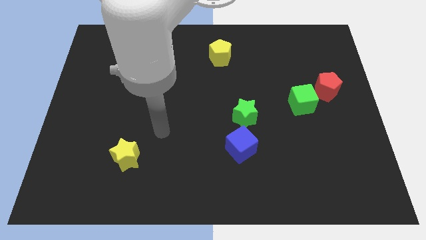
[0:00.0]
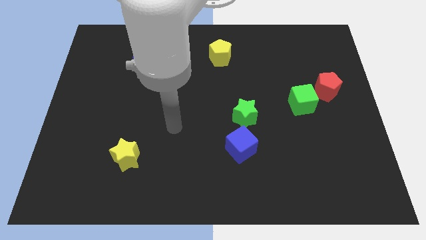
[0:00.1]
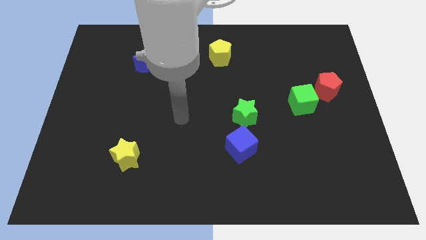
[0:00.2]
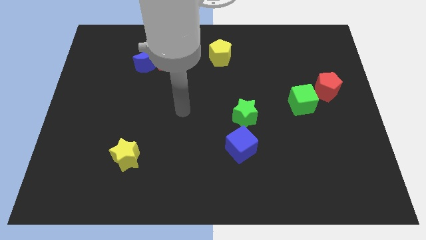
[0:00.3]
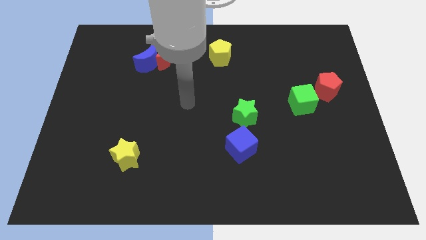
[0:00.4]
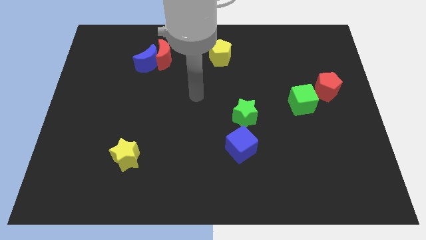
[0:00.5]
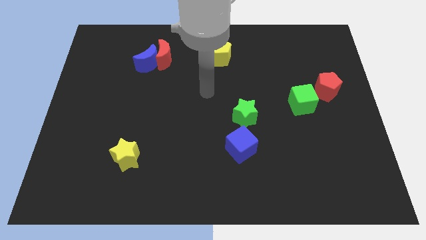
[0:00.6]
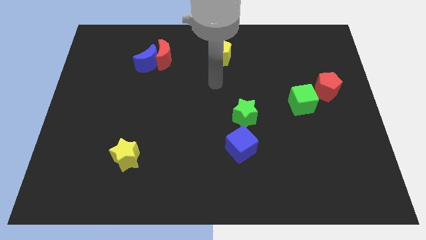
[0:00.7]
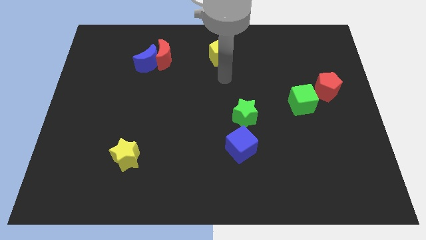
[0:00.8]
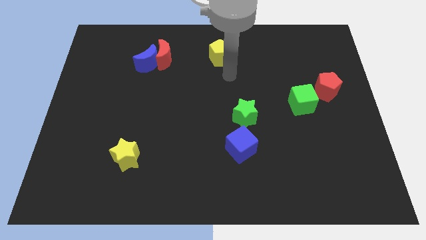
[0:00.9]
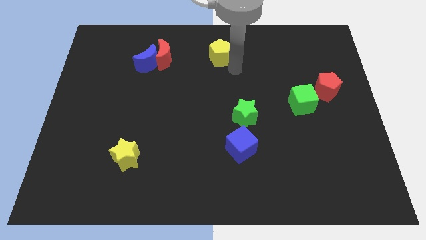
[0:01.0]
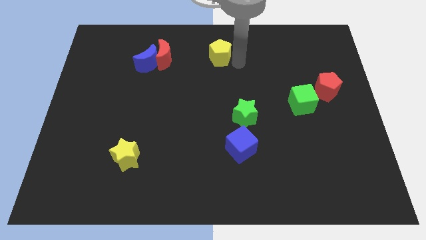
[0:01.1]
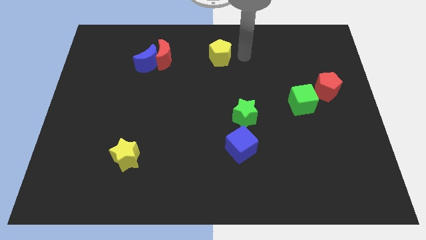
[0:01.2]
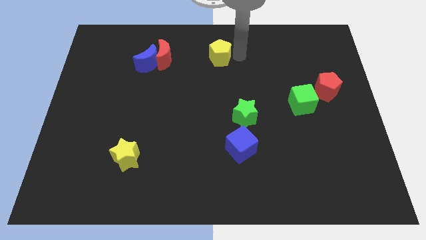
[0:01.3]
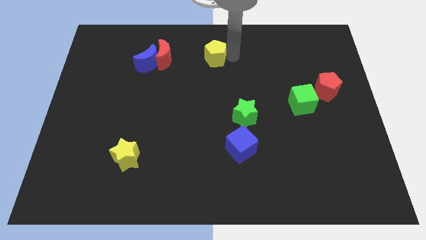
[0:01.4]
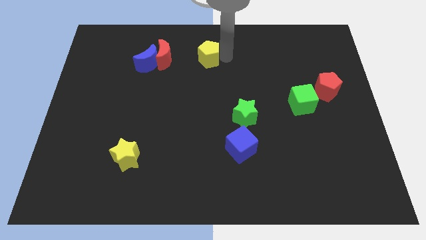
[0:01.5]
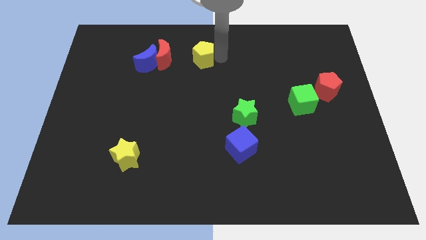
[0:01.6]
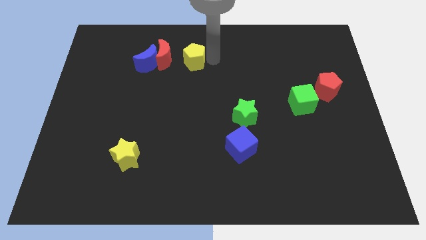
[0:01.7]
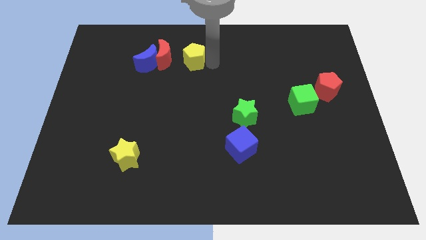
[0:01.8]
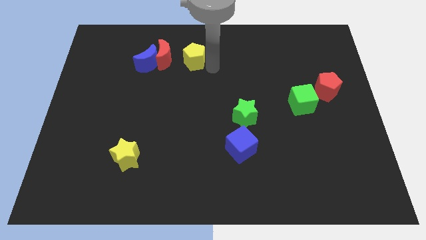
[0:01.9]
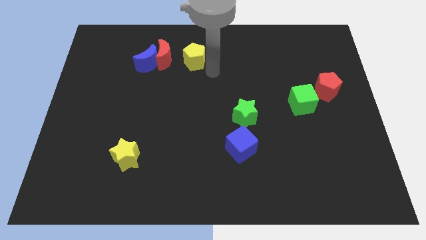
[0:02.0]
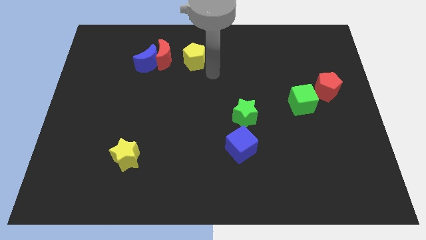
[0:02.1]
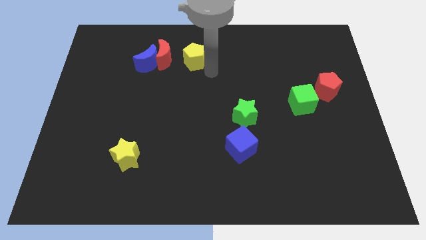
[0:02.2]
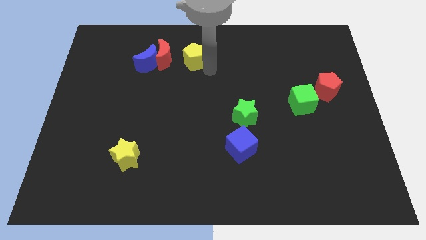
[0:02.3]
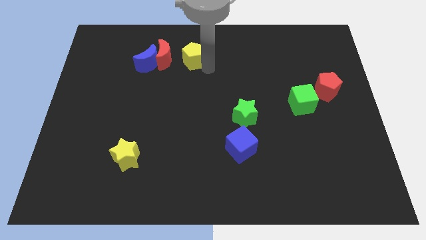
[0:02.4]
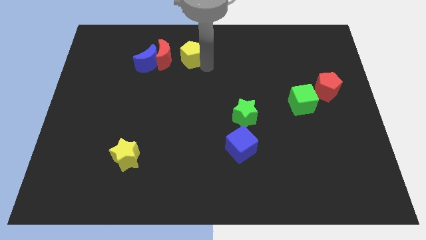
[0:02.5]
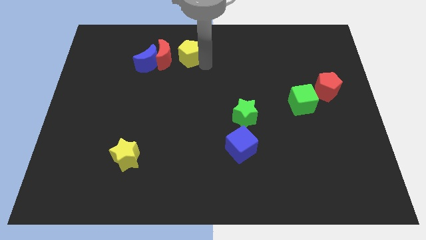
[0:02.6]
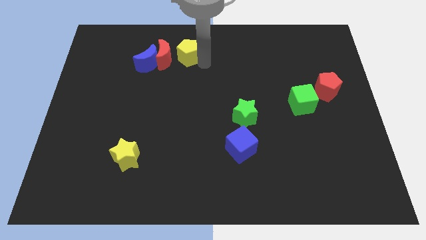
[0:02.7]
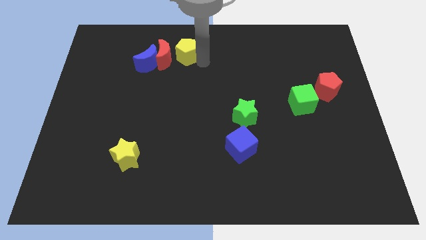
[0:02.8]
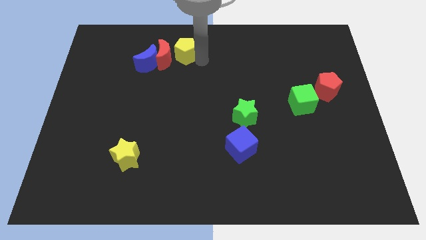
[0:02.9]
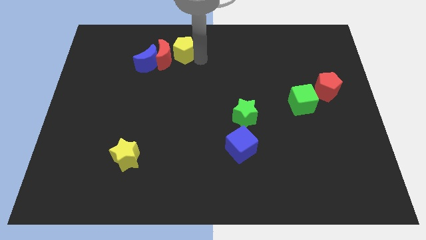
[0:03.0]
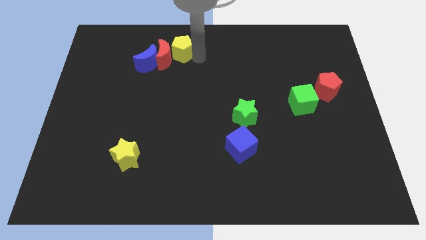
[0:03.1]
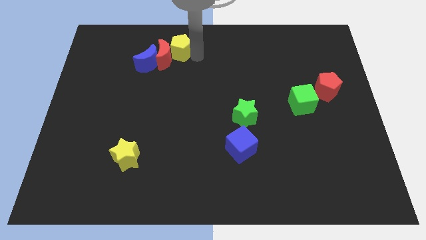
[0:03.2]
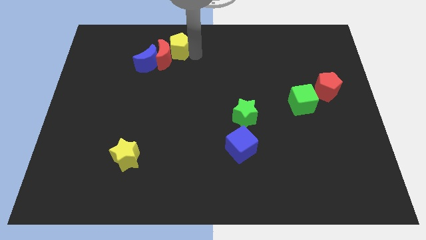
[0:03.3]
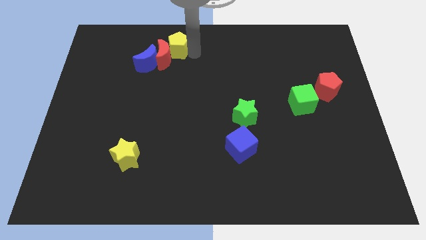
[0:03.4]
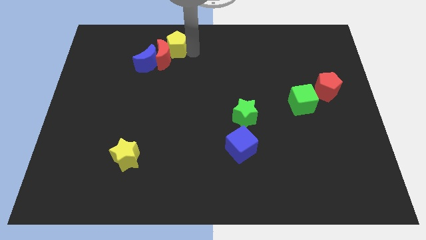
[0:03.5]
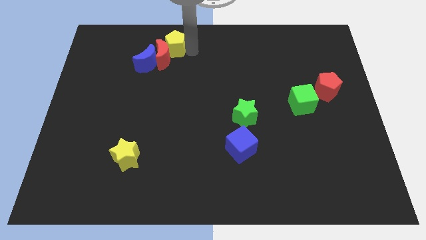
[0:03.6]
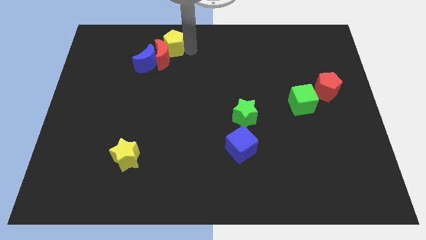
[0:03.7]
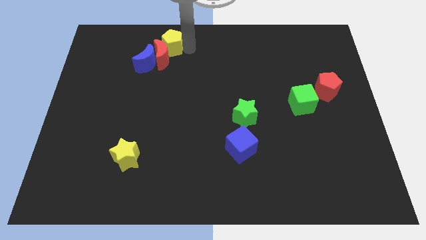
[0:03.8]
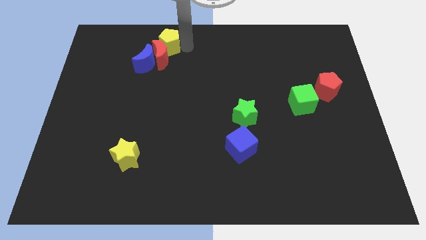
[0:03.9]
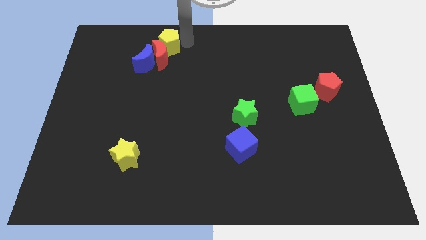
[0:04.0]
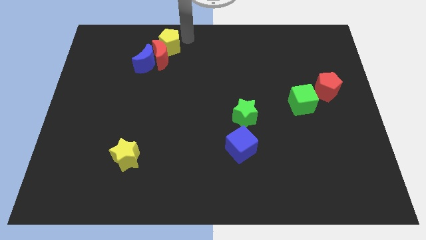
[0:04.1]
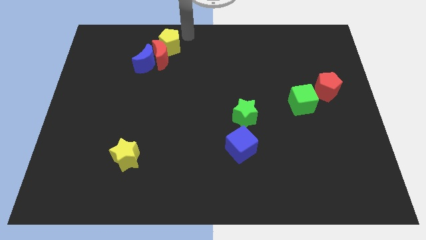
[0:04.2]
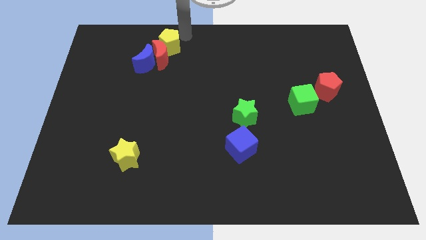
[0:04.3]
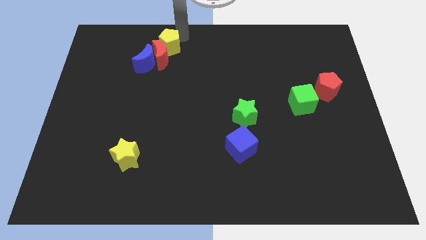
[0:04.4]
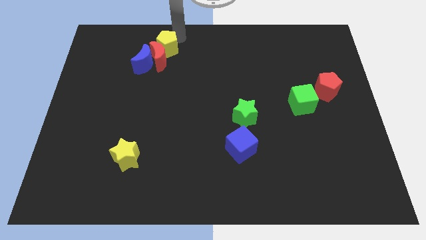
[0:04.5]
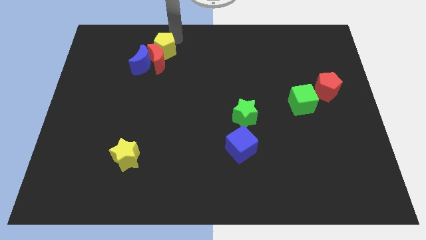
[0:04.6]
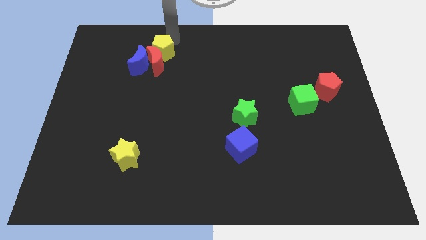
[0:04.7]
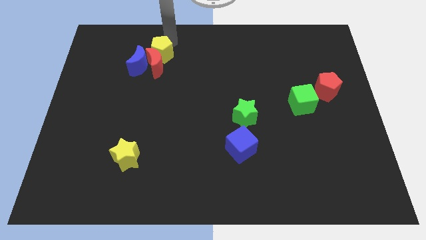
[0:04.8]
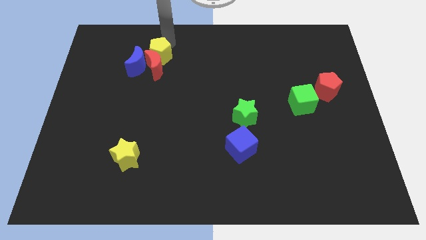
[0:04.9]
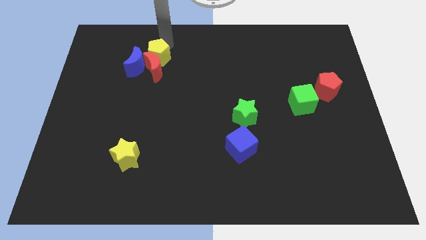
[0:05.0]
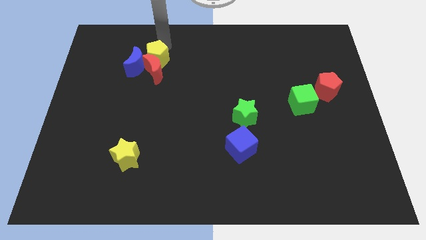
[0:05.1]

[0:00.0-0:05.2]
slide the yellow pentagon towards the blue moon

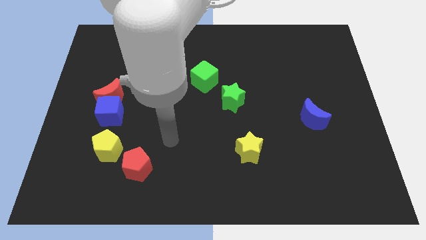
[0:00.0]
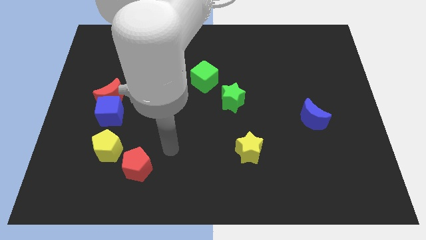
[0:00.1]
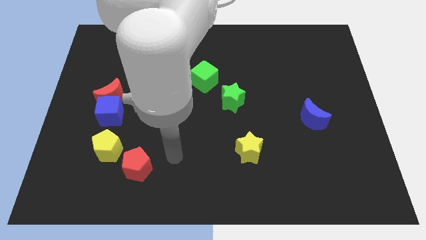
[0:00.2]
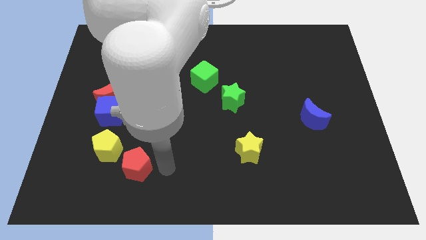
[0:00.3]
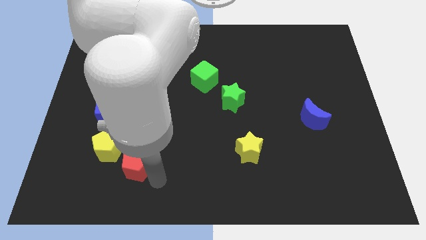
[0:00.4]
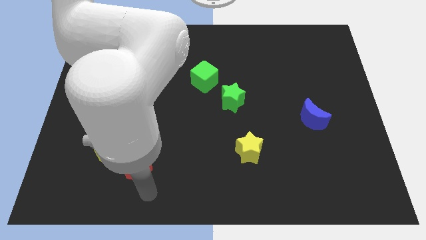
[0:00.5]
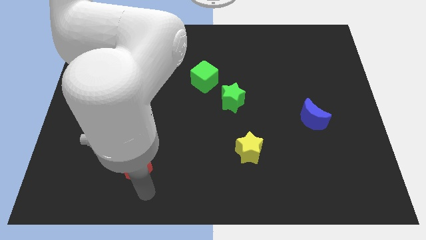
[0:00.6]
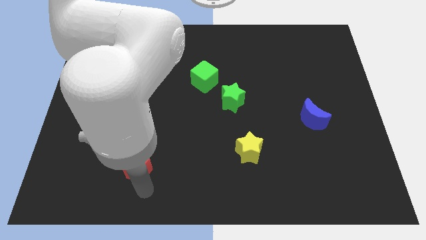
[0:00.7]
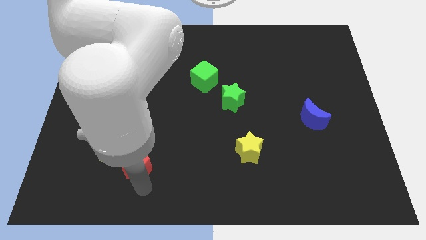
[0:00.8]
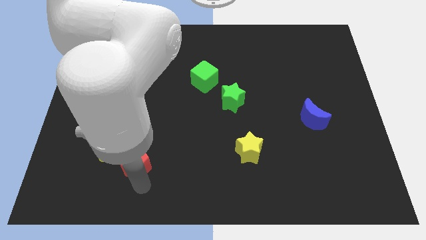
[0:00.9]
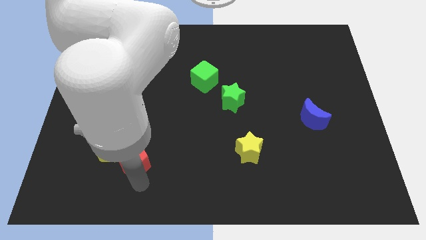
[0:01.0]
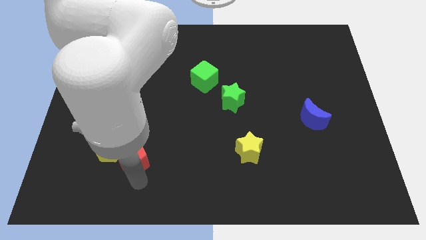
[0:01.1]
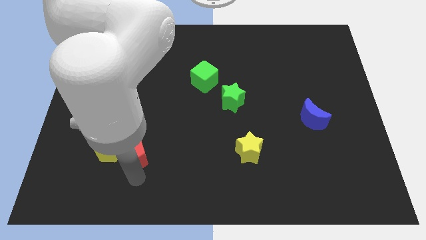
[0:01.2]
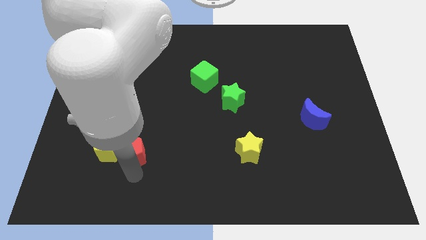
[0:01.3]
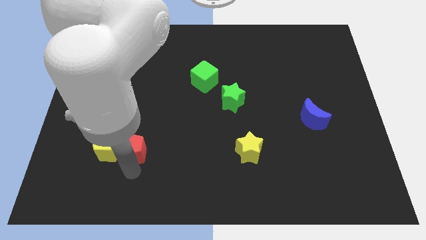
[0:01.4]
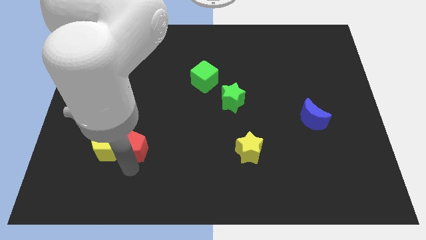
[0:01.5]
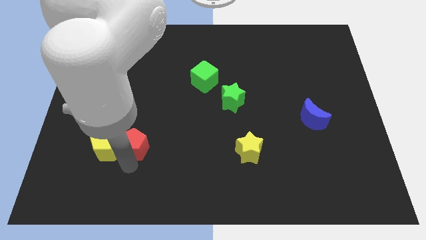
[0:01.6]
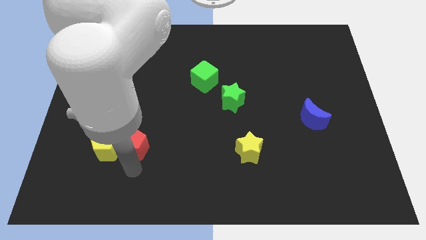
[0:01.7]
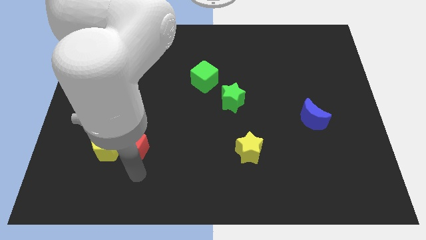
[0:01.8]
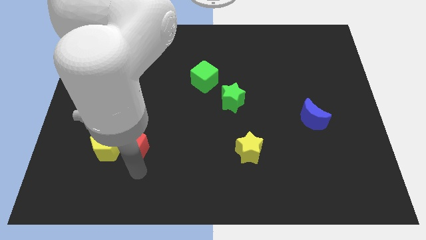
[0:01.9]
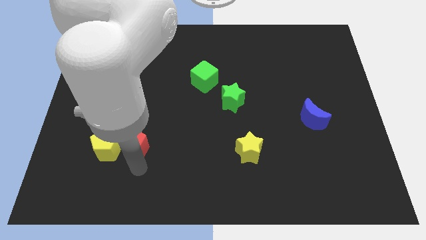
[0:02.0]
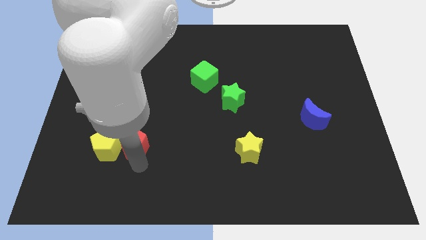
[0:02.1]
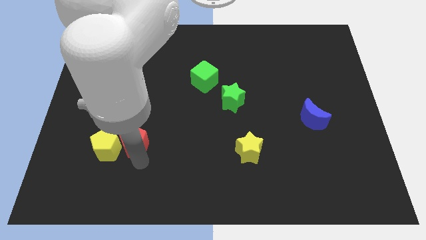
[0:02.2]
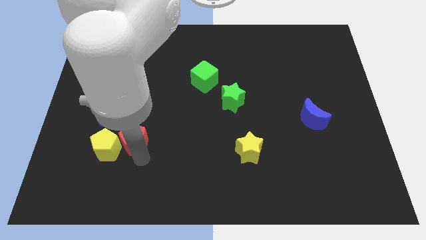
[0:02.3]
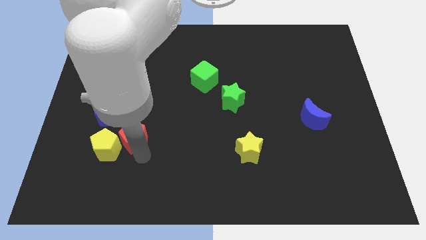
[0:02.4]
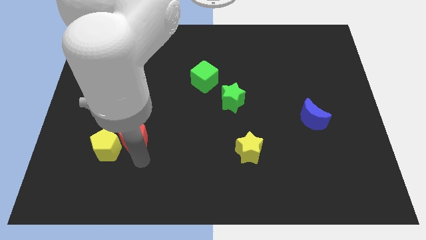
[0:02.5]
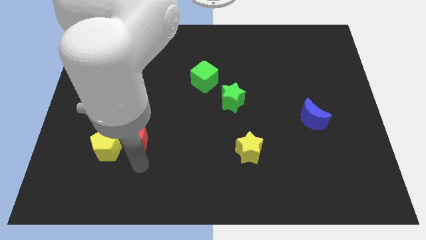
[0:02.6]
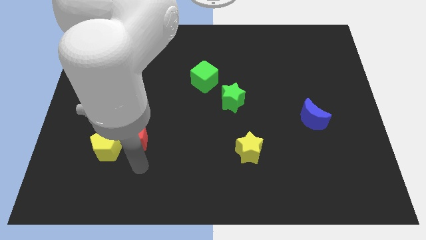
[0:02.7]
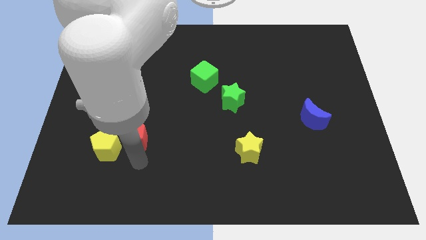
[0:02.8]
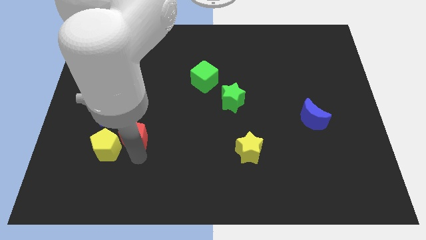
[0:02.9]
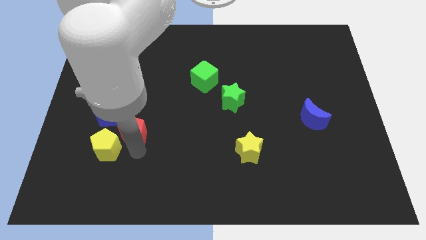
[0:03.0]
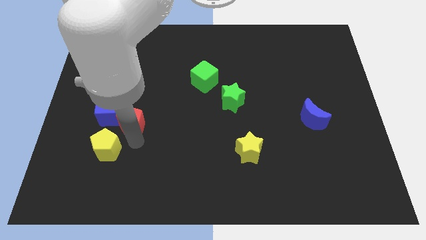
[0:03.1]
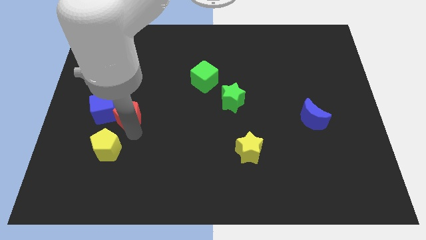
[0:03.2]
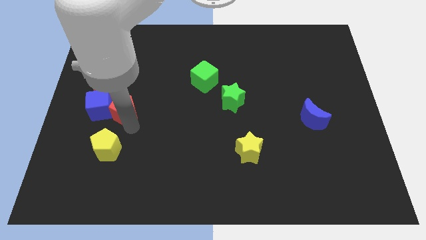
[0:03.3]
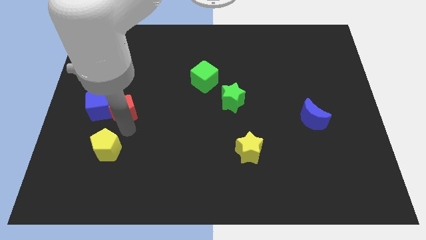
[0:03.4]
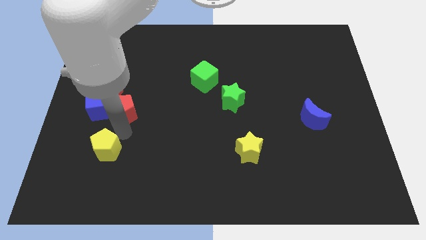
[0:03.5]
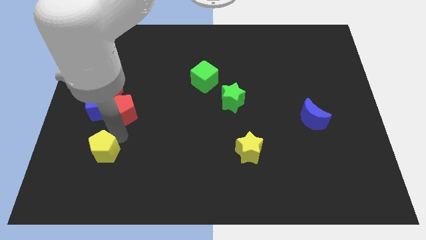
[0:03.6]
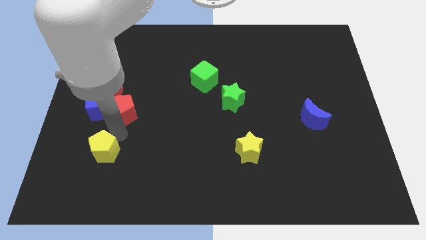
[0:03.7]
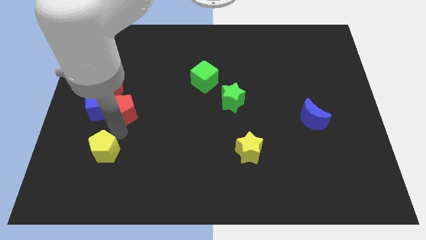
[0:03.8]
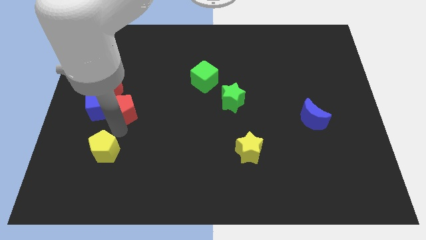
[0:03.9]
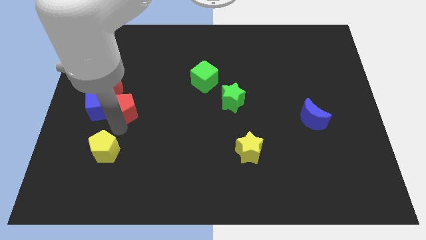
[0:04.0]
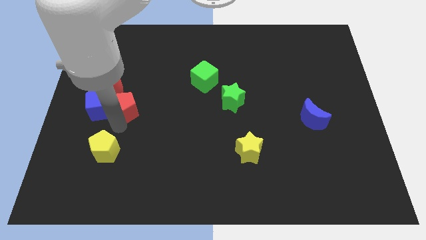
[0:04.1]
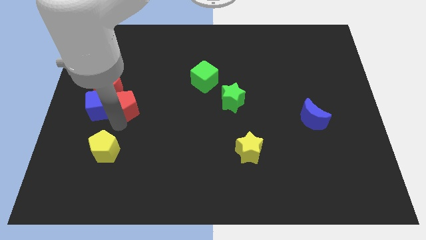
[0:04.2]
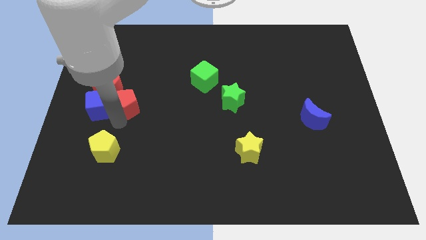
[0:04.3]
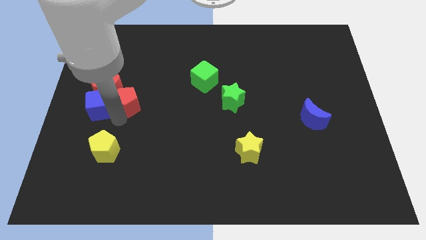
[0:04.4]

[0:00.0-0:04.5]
push the red pentagon close to the red moon
